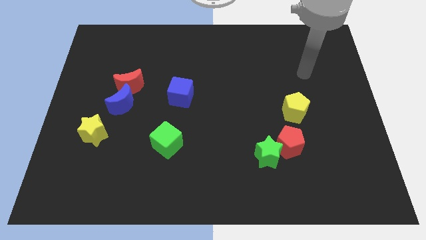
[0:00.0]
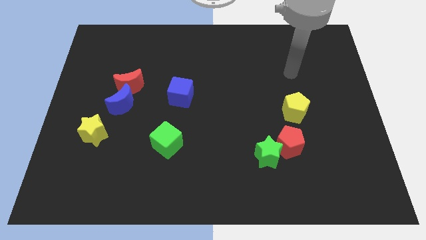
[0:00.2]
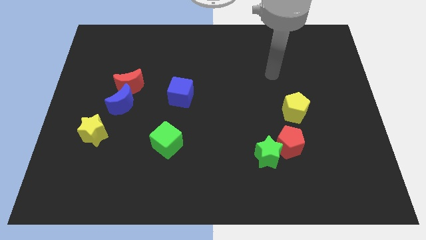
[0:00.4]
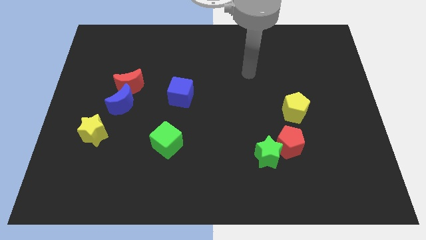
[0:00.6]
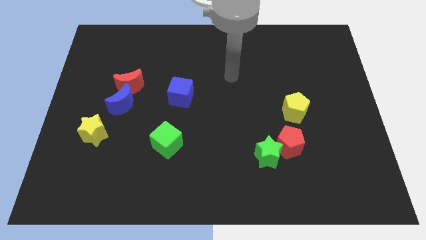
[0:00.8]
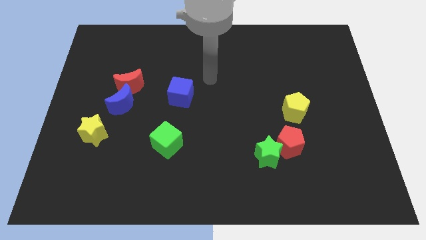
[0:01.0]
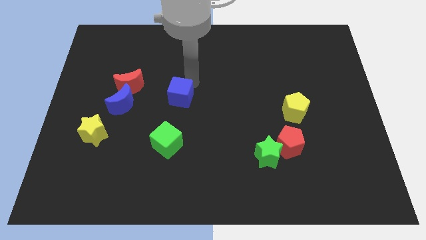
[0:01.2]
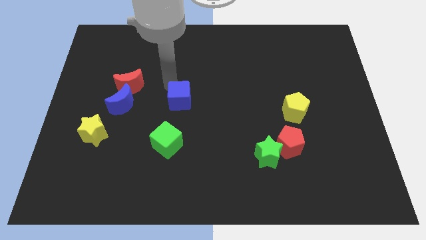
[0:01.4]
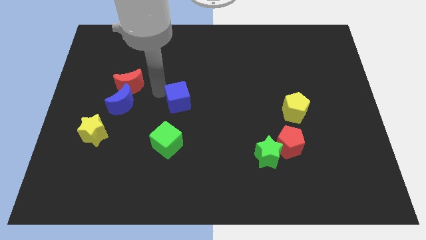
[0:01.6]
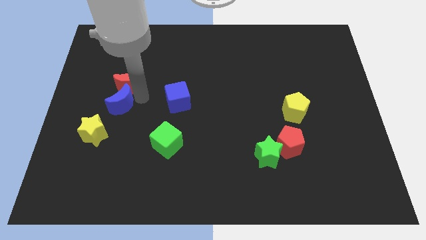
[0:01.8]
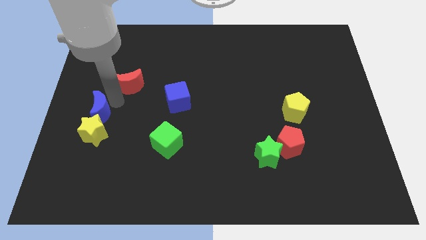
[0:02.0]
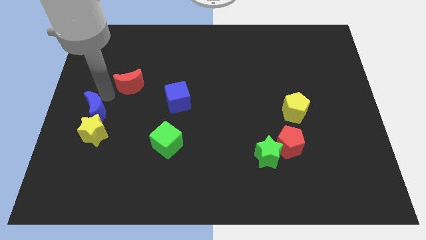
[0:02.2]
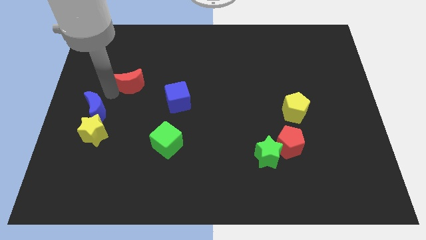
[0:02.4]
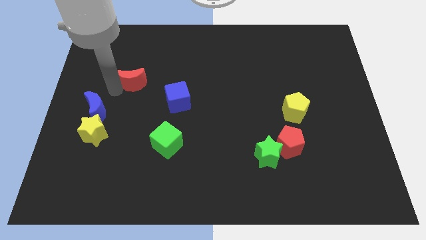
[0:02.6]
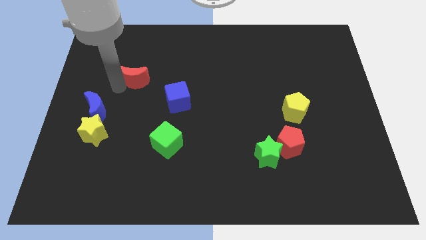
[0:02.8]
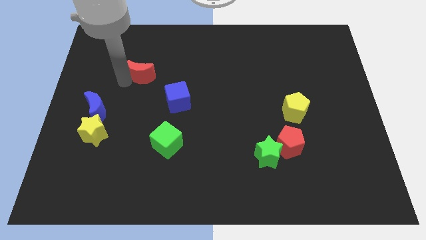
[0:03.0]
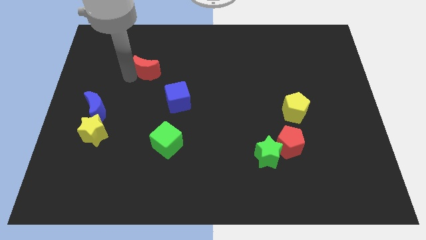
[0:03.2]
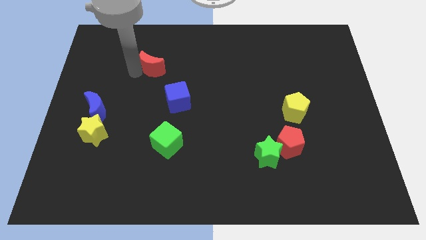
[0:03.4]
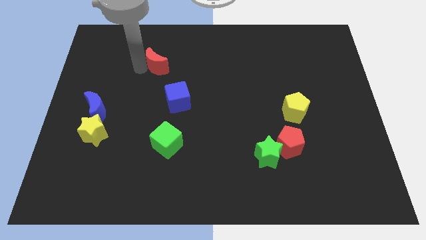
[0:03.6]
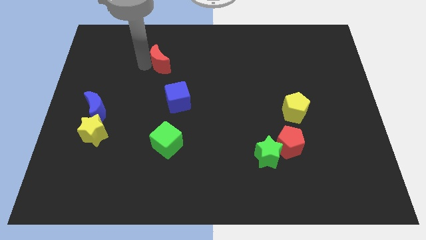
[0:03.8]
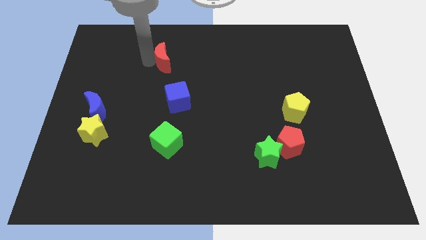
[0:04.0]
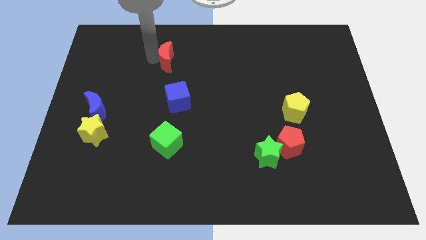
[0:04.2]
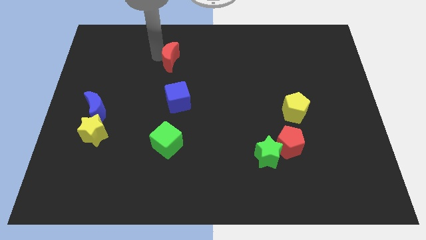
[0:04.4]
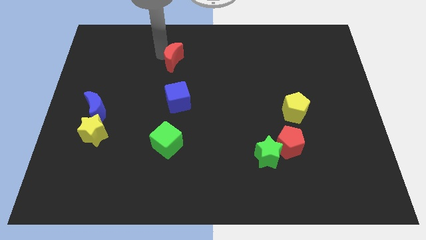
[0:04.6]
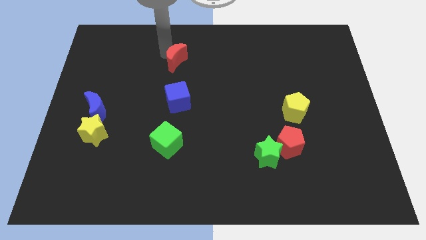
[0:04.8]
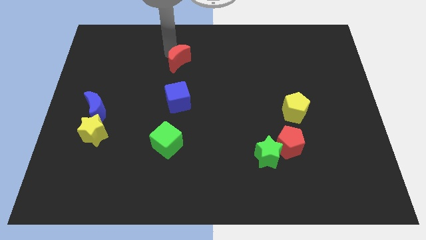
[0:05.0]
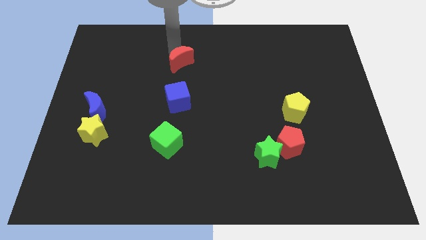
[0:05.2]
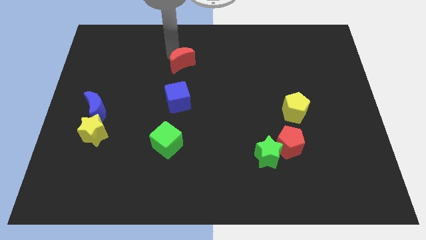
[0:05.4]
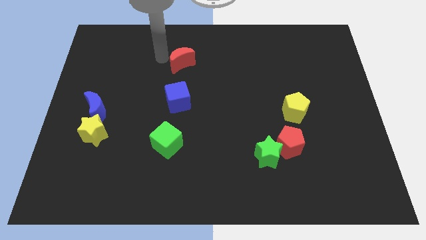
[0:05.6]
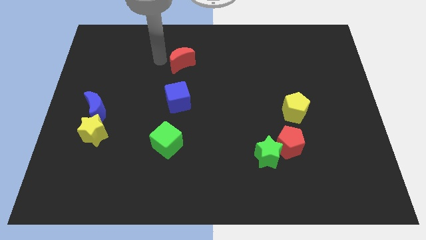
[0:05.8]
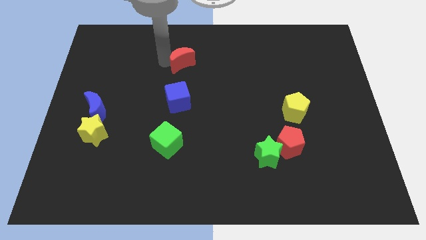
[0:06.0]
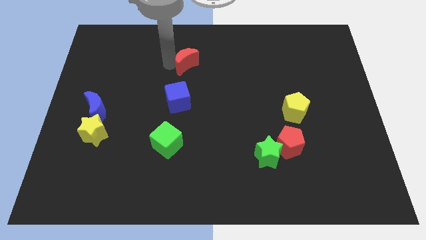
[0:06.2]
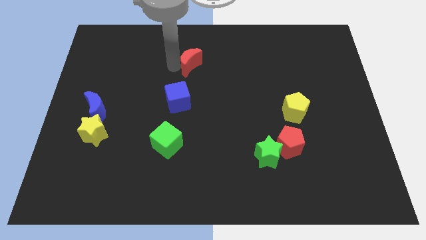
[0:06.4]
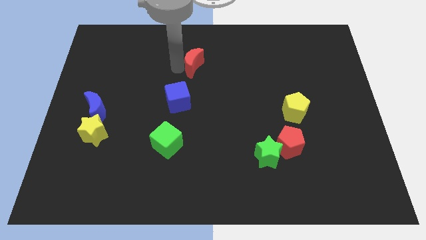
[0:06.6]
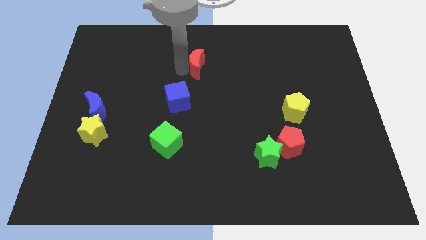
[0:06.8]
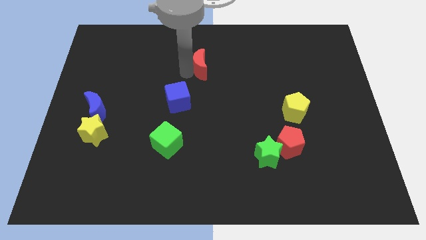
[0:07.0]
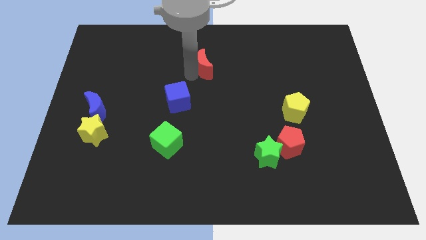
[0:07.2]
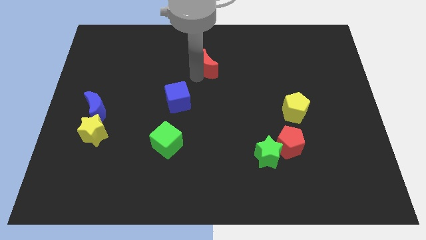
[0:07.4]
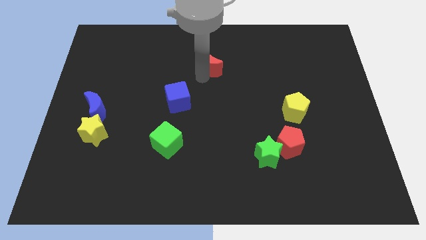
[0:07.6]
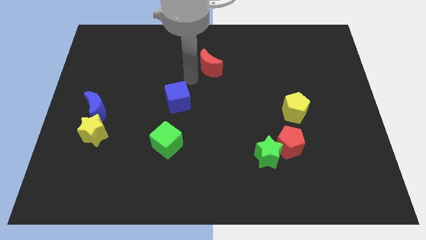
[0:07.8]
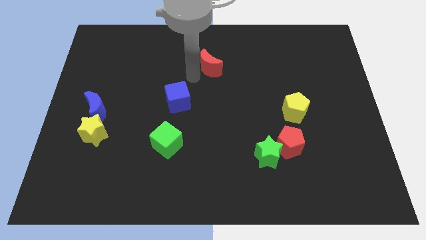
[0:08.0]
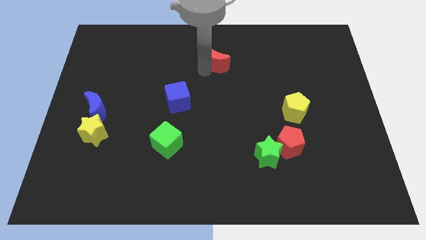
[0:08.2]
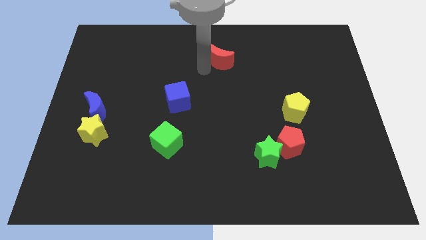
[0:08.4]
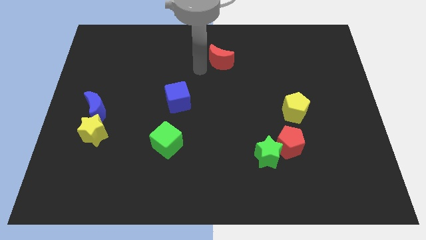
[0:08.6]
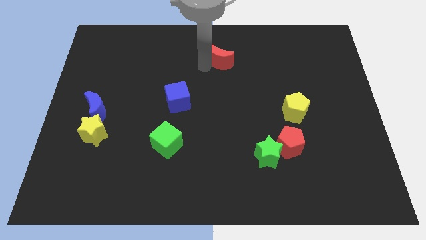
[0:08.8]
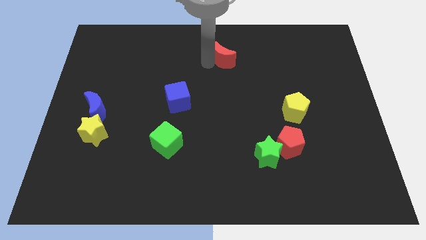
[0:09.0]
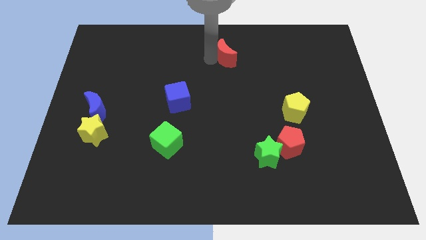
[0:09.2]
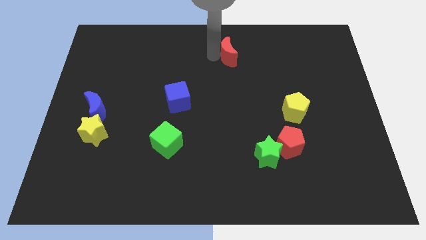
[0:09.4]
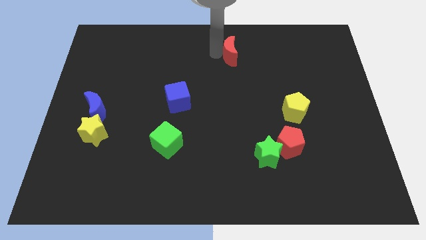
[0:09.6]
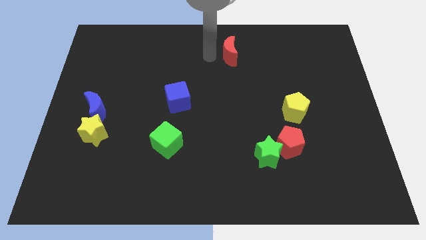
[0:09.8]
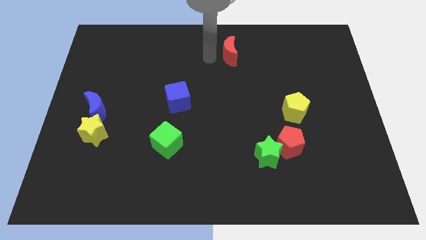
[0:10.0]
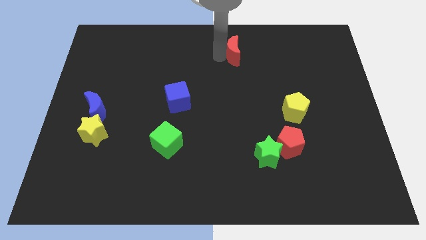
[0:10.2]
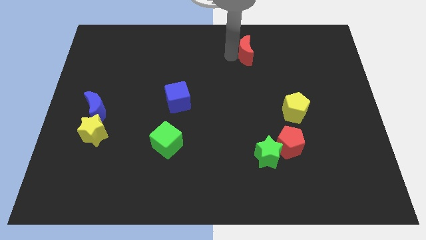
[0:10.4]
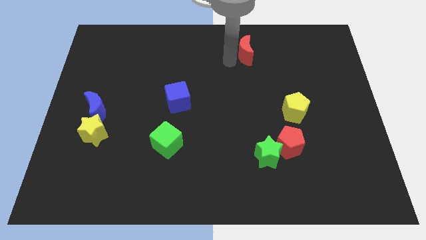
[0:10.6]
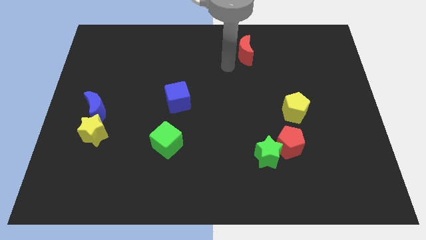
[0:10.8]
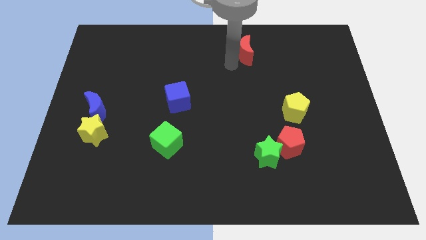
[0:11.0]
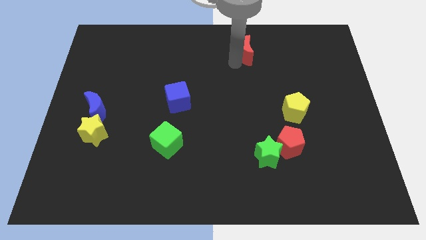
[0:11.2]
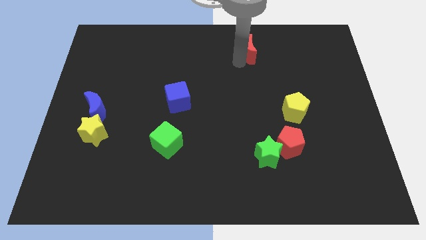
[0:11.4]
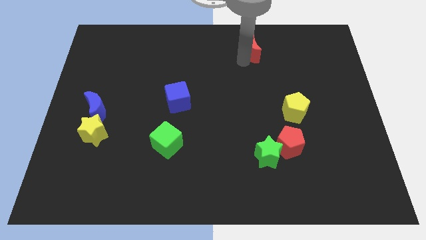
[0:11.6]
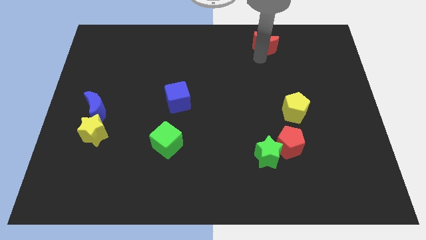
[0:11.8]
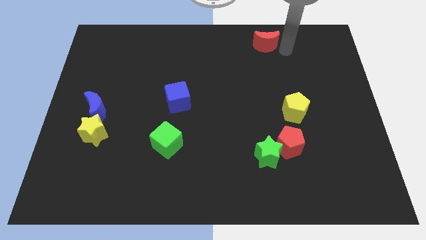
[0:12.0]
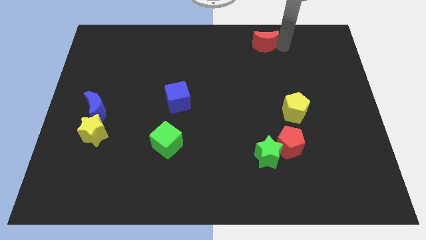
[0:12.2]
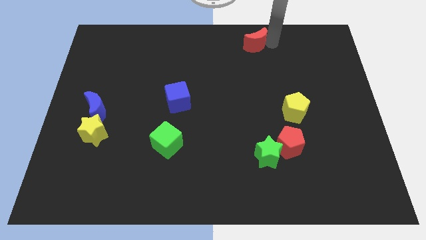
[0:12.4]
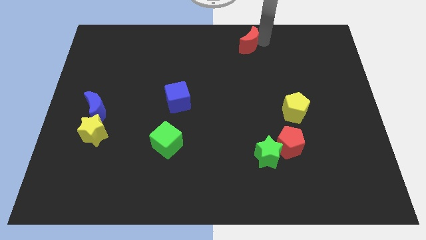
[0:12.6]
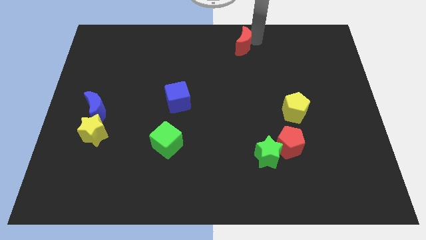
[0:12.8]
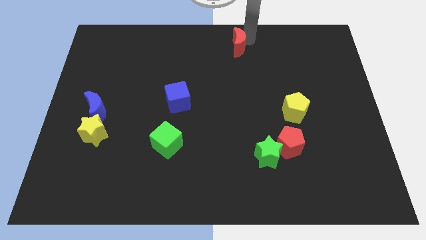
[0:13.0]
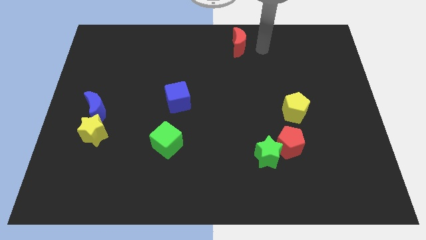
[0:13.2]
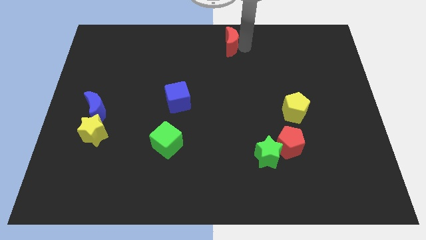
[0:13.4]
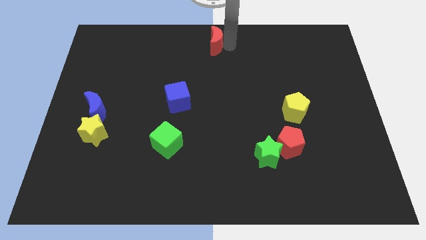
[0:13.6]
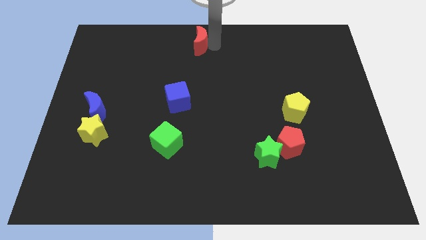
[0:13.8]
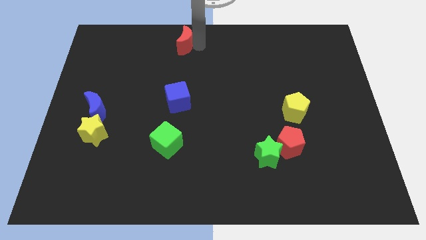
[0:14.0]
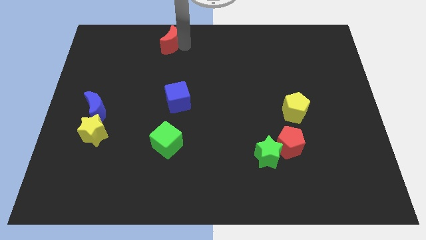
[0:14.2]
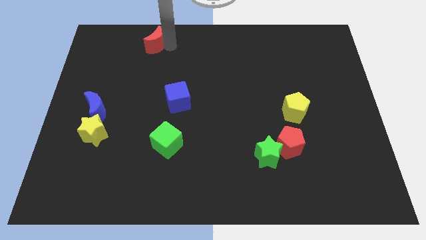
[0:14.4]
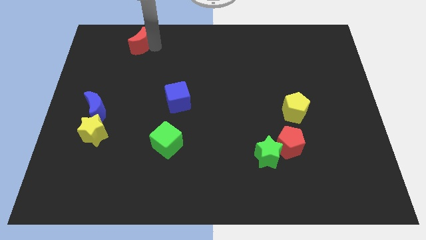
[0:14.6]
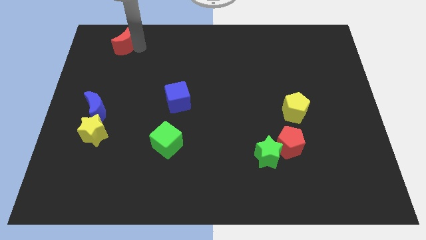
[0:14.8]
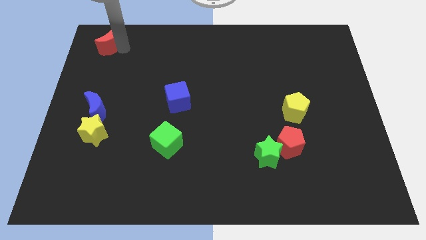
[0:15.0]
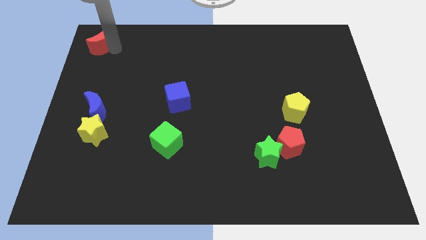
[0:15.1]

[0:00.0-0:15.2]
push the red moon to the upper left corner
